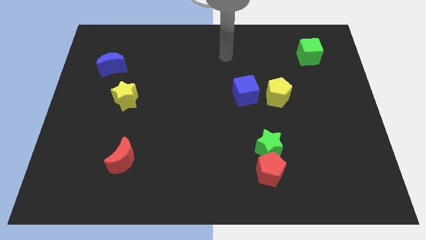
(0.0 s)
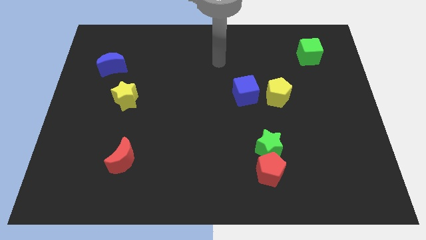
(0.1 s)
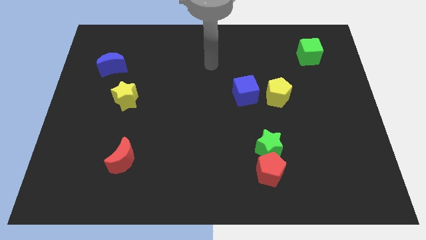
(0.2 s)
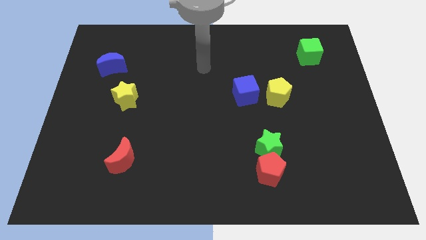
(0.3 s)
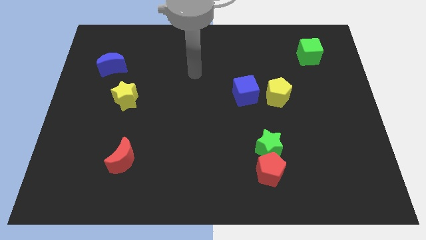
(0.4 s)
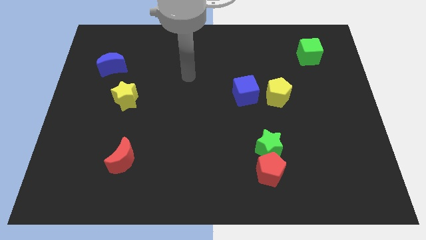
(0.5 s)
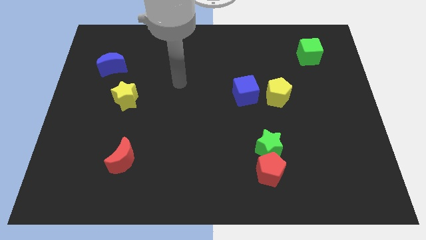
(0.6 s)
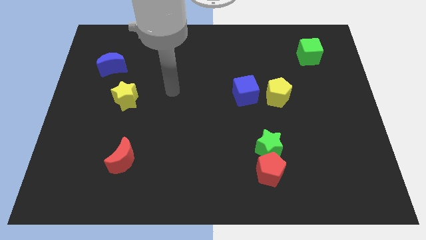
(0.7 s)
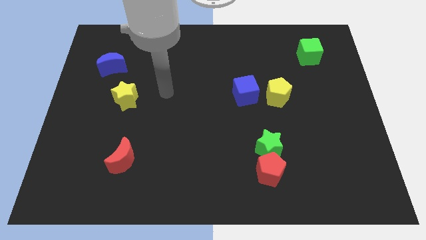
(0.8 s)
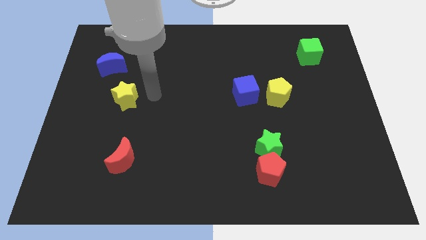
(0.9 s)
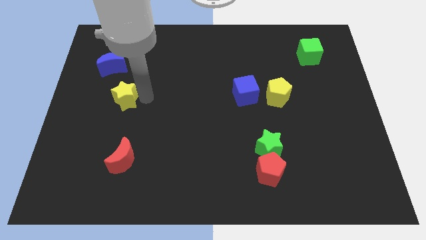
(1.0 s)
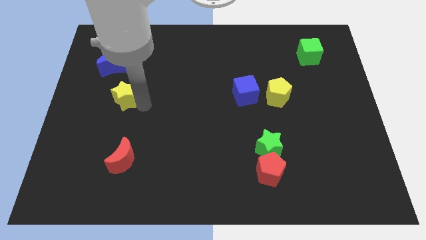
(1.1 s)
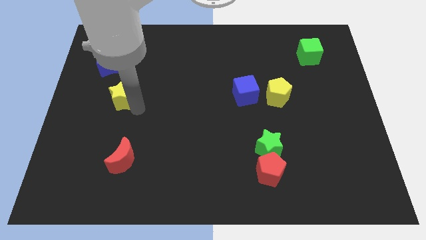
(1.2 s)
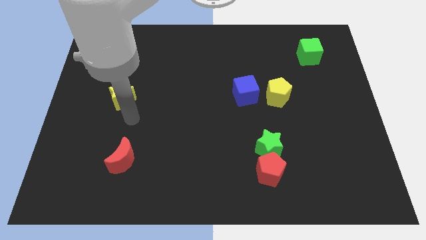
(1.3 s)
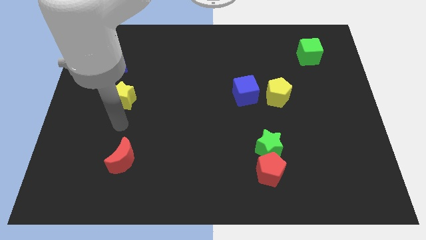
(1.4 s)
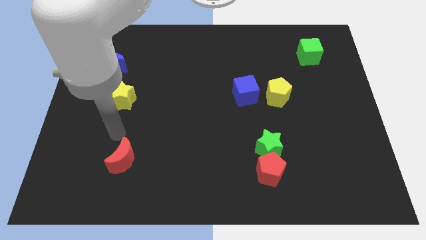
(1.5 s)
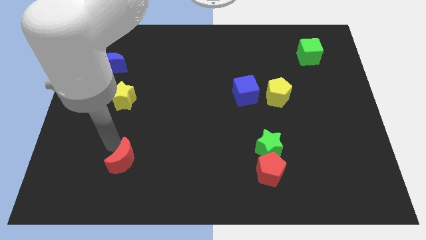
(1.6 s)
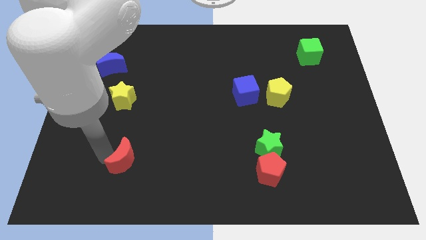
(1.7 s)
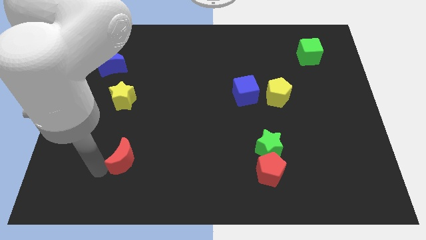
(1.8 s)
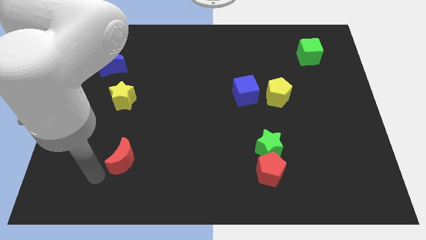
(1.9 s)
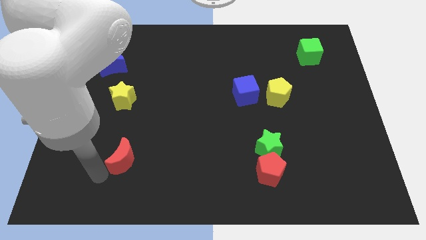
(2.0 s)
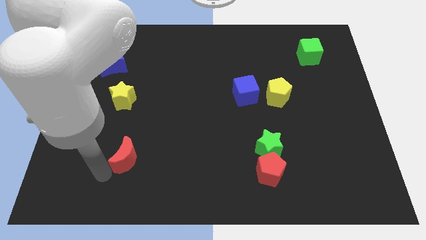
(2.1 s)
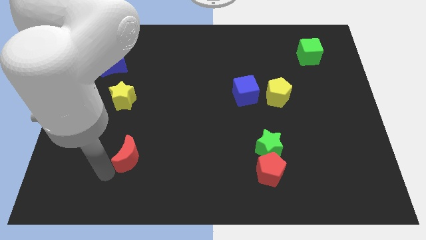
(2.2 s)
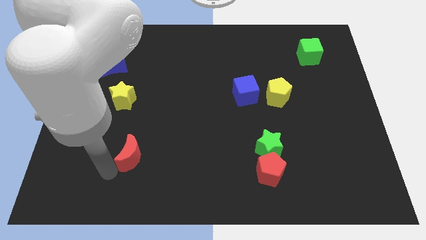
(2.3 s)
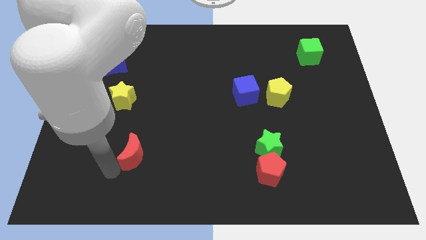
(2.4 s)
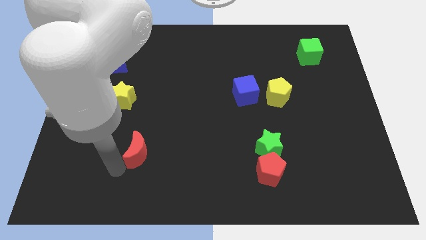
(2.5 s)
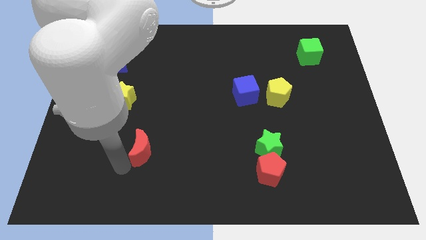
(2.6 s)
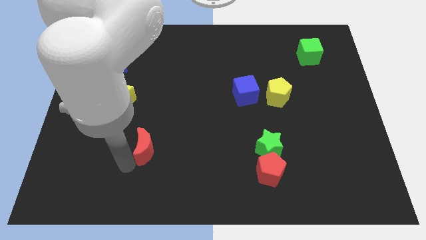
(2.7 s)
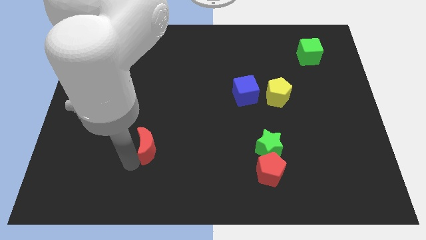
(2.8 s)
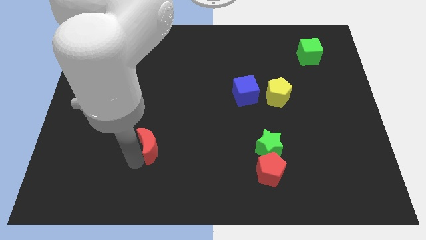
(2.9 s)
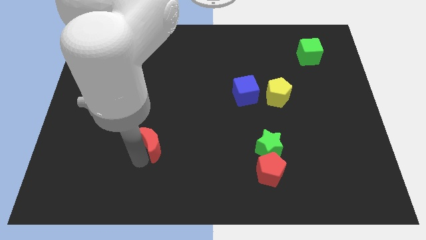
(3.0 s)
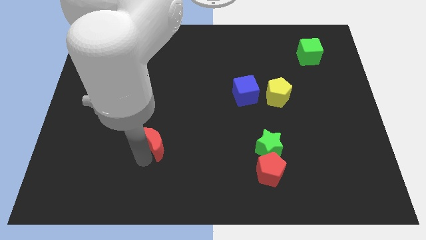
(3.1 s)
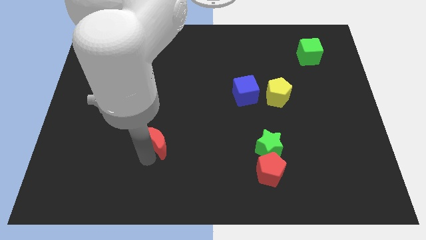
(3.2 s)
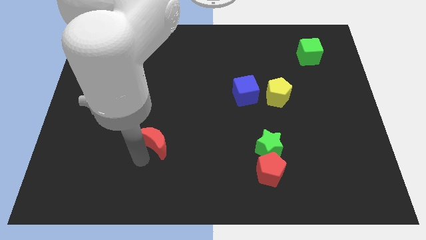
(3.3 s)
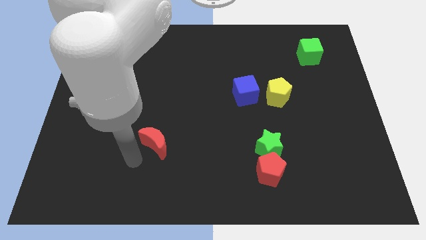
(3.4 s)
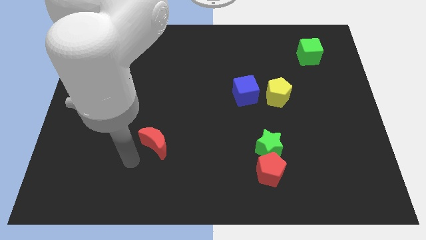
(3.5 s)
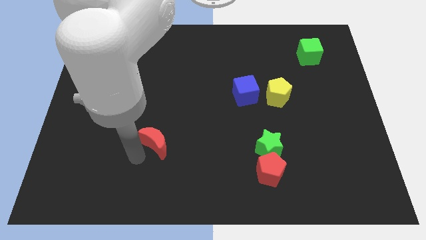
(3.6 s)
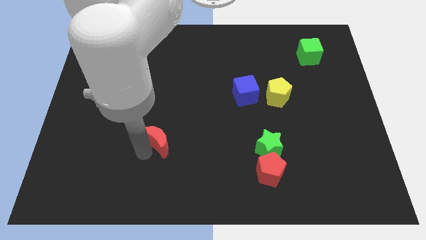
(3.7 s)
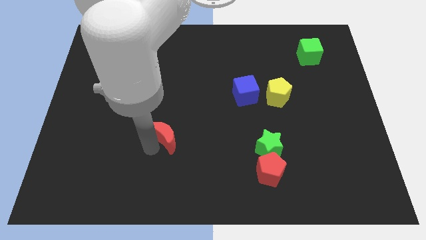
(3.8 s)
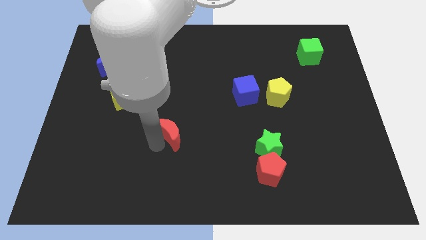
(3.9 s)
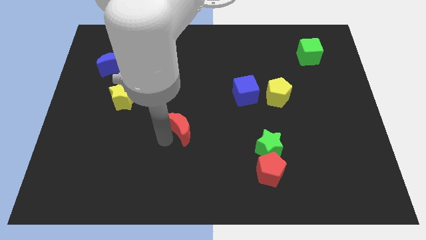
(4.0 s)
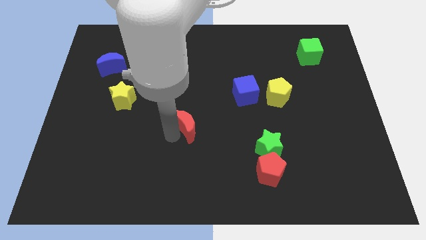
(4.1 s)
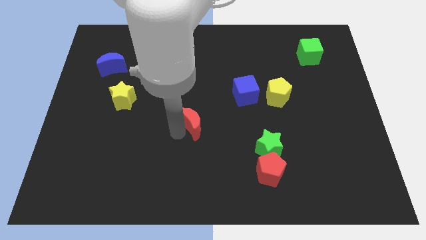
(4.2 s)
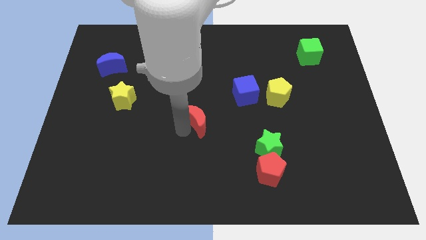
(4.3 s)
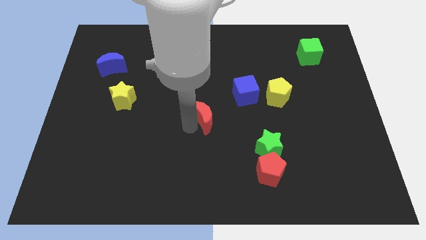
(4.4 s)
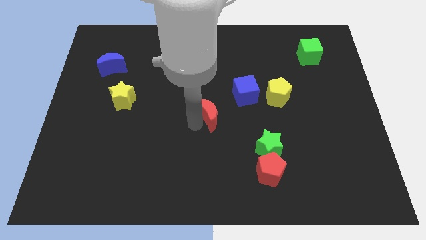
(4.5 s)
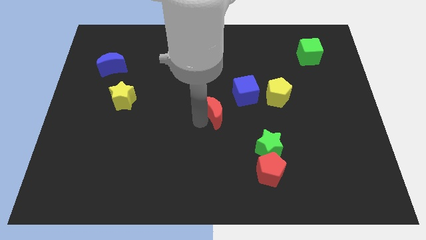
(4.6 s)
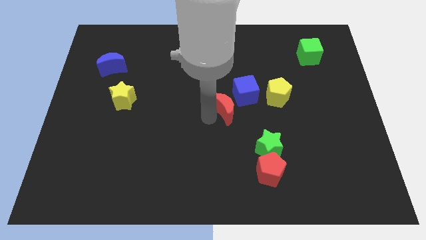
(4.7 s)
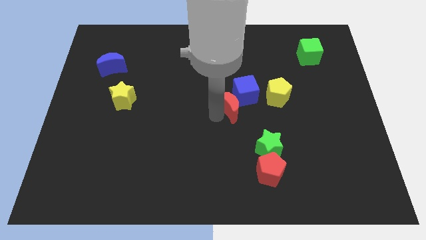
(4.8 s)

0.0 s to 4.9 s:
put the red moon to the blue cube

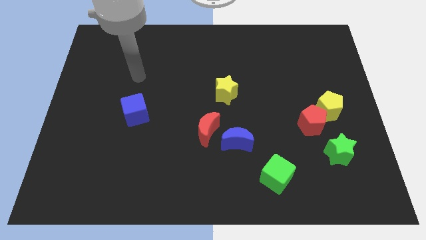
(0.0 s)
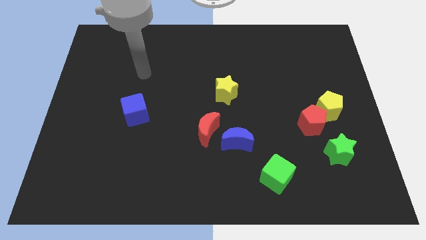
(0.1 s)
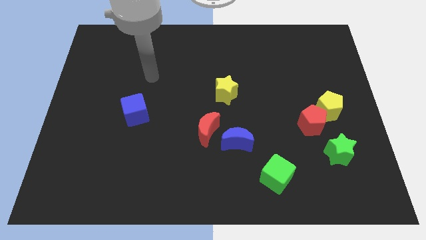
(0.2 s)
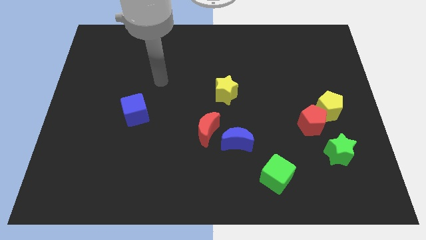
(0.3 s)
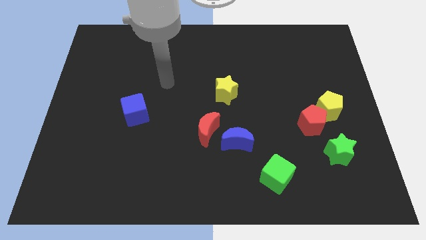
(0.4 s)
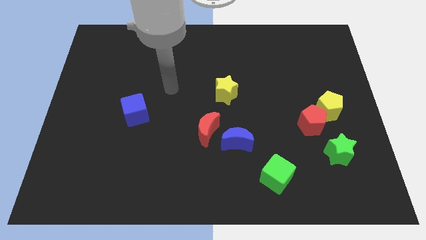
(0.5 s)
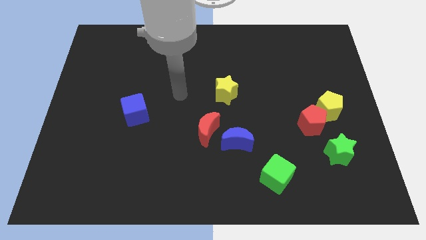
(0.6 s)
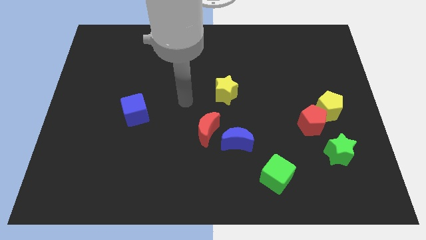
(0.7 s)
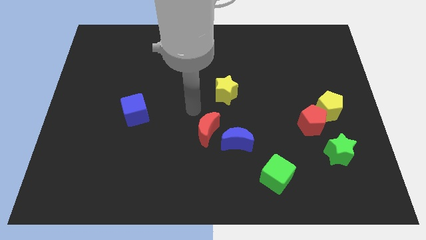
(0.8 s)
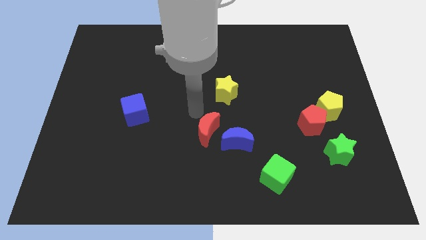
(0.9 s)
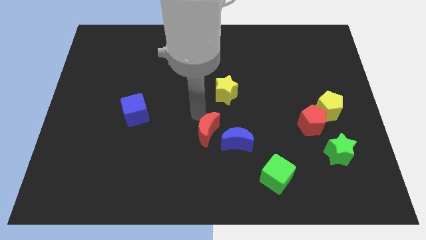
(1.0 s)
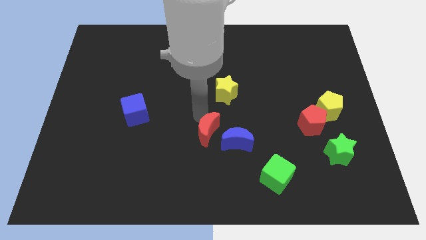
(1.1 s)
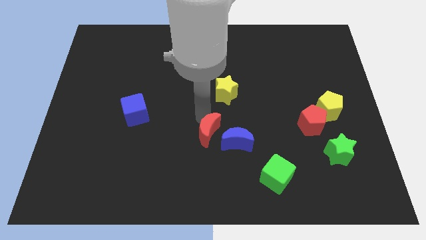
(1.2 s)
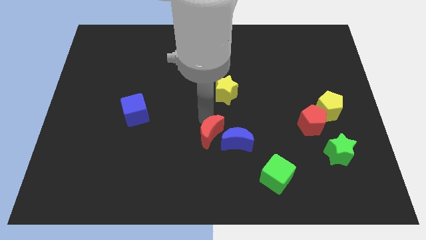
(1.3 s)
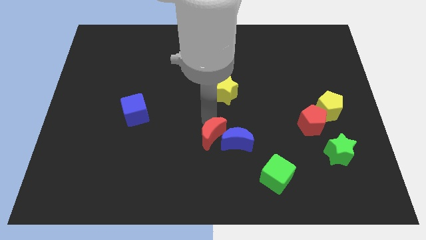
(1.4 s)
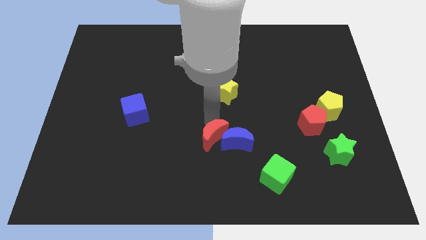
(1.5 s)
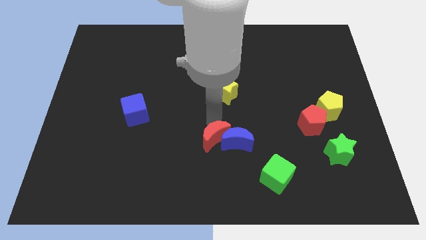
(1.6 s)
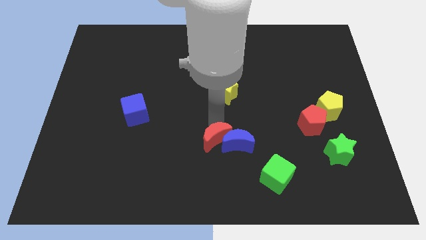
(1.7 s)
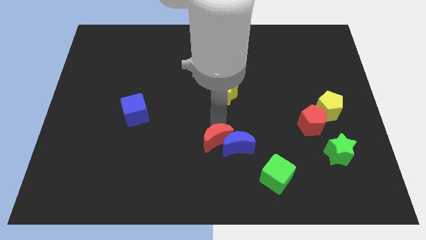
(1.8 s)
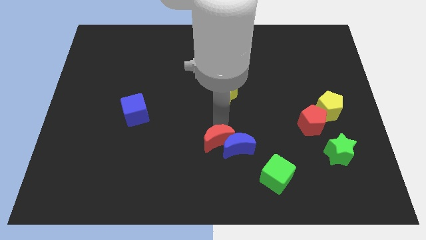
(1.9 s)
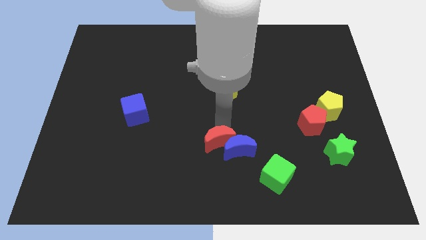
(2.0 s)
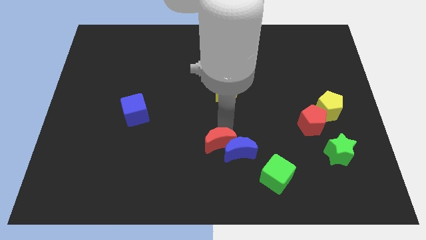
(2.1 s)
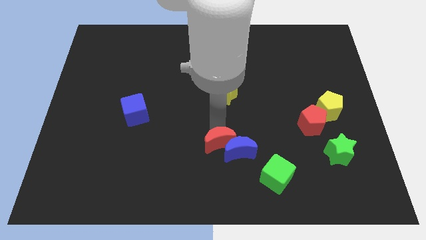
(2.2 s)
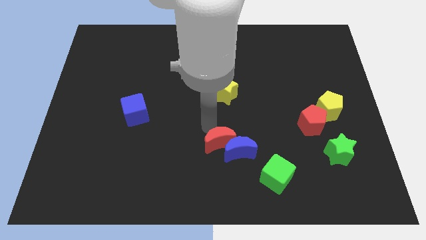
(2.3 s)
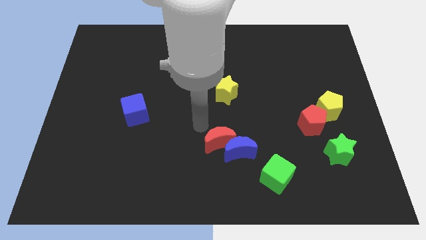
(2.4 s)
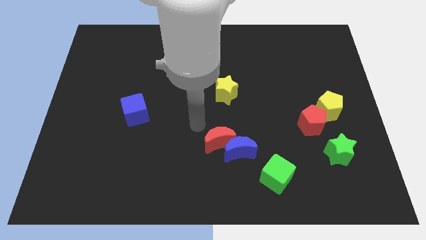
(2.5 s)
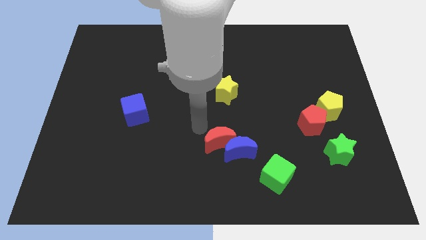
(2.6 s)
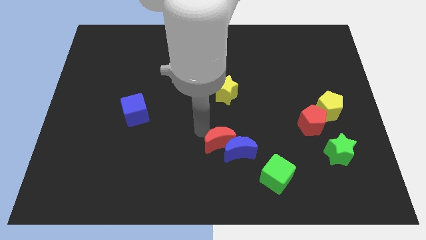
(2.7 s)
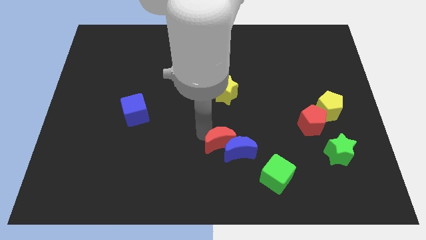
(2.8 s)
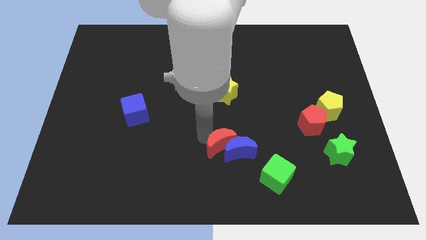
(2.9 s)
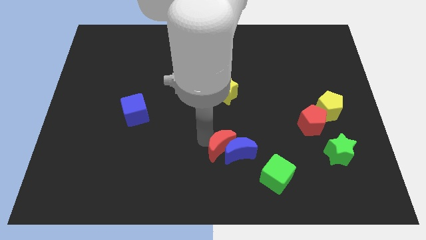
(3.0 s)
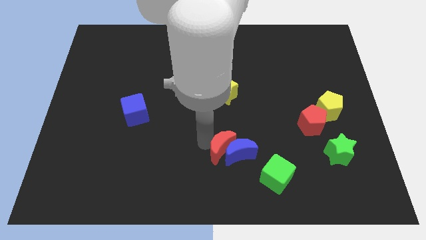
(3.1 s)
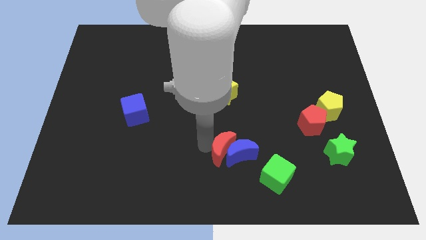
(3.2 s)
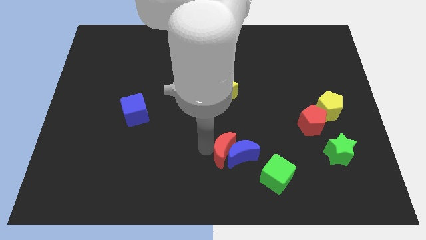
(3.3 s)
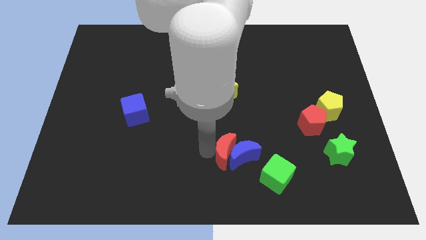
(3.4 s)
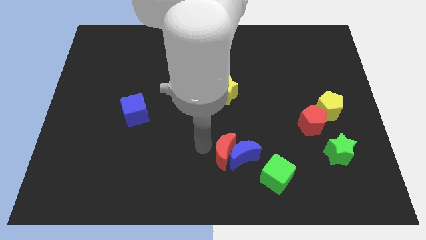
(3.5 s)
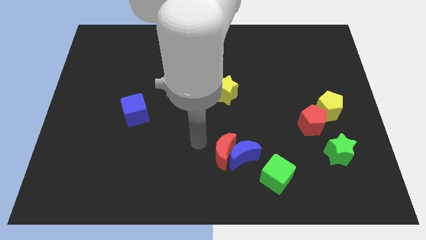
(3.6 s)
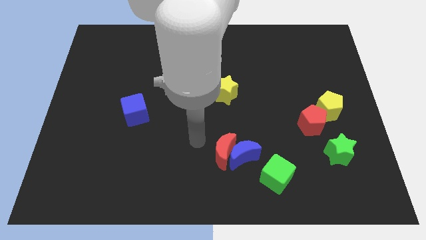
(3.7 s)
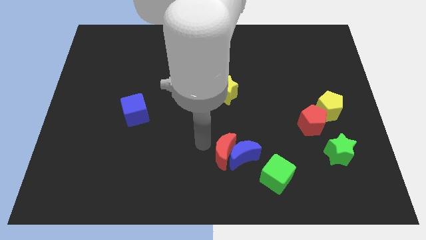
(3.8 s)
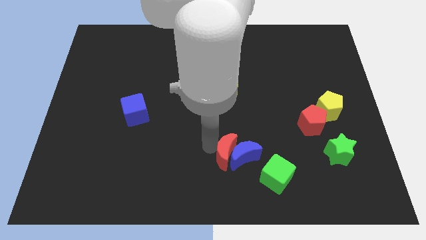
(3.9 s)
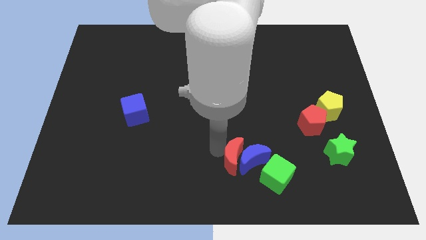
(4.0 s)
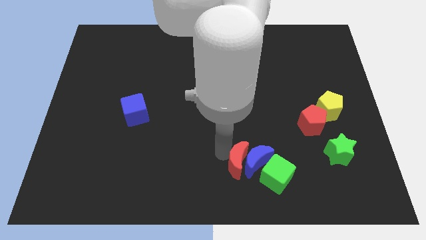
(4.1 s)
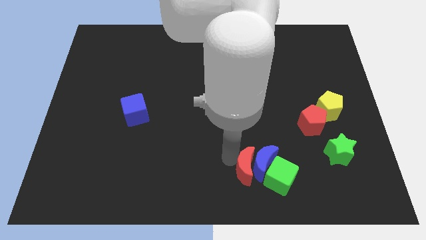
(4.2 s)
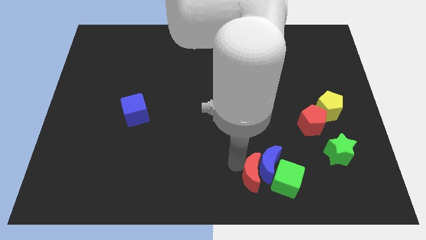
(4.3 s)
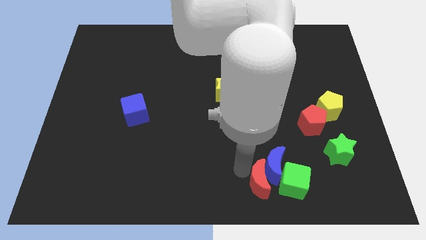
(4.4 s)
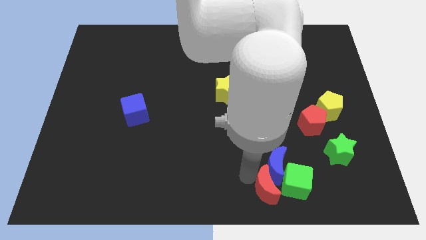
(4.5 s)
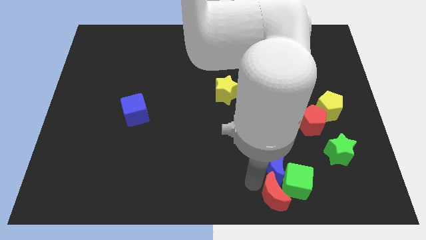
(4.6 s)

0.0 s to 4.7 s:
slide the red moon towards the green cube
